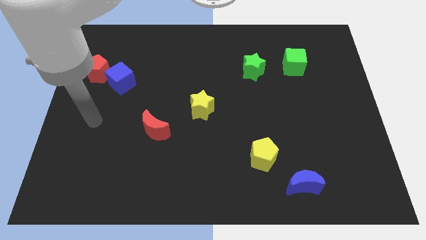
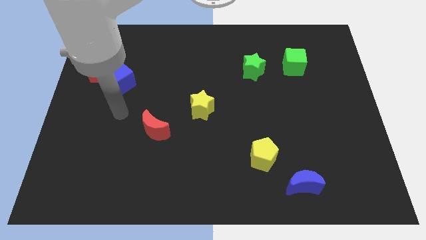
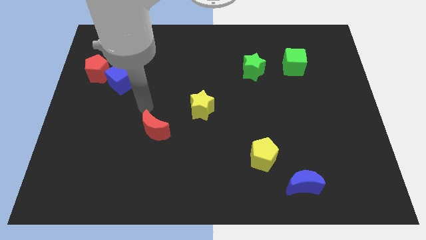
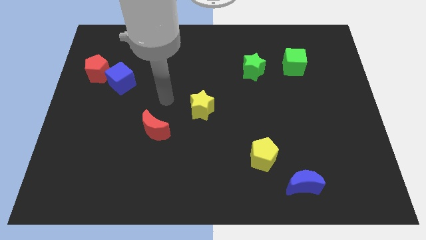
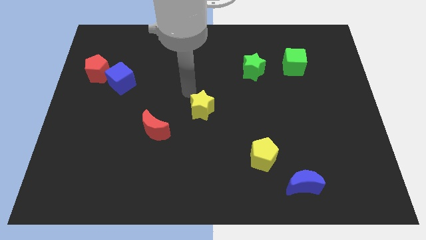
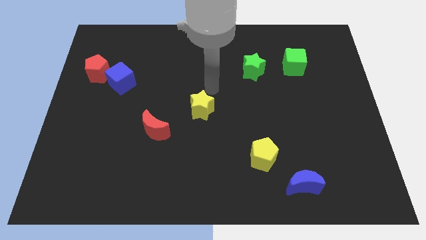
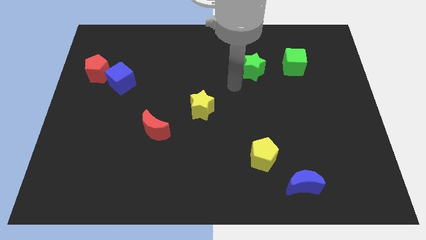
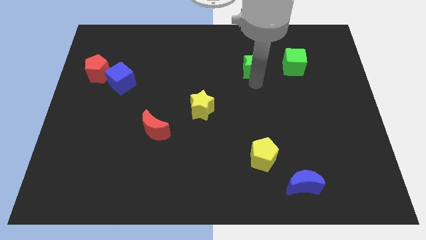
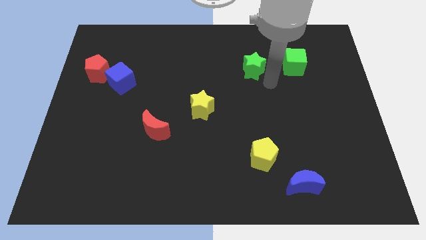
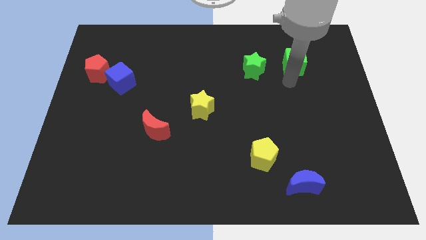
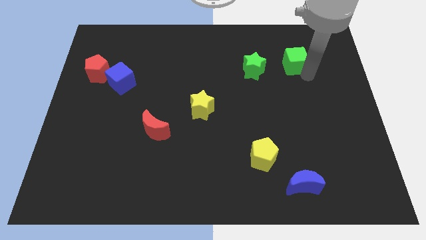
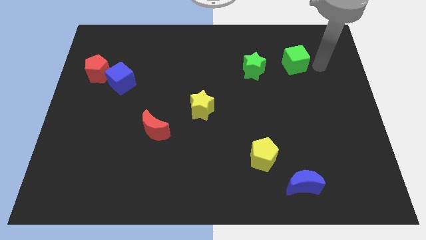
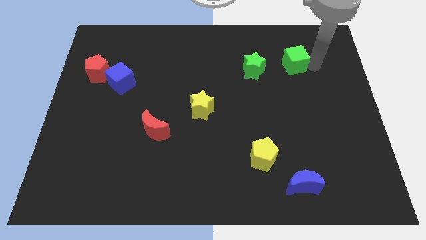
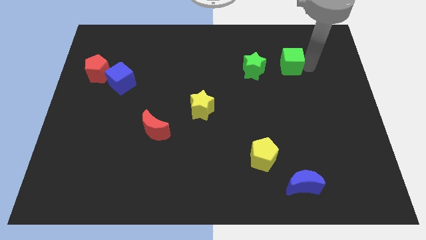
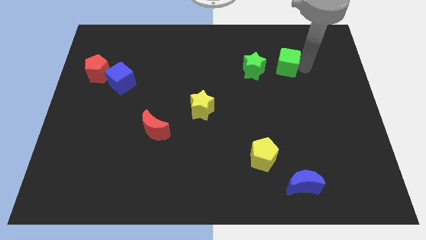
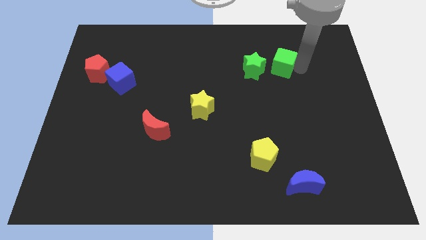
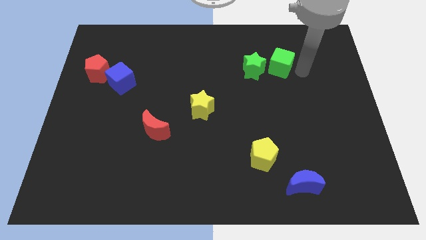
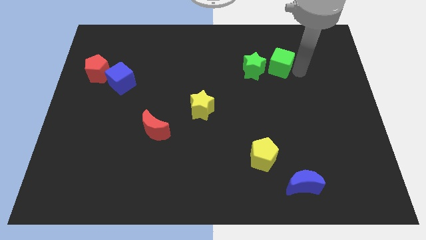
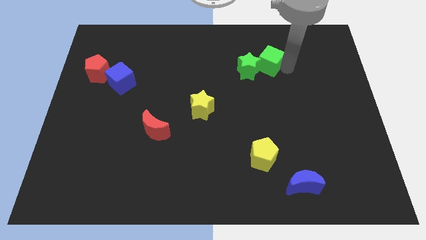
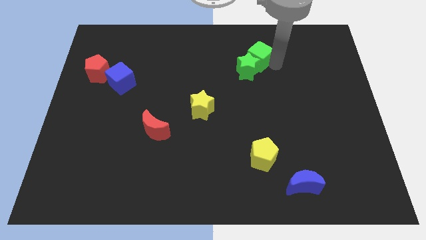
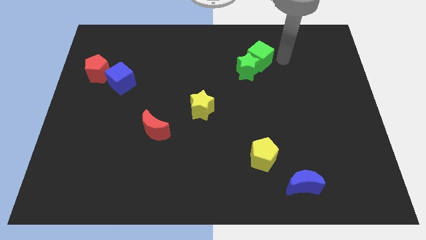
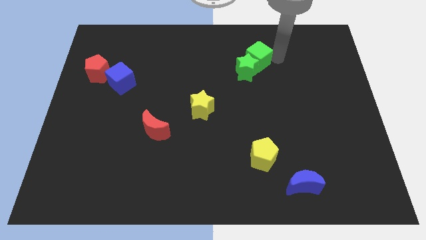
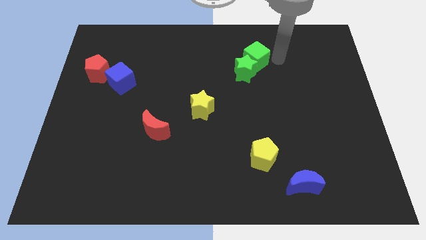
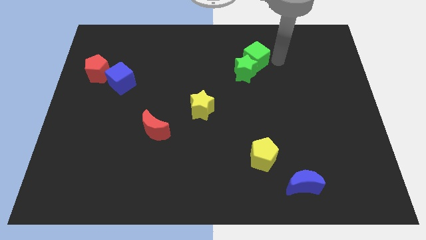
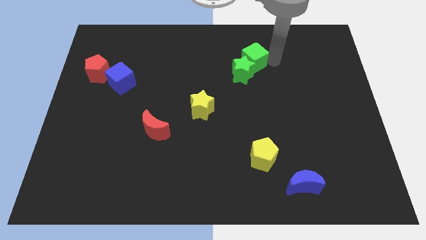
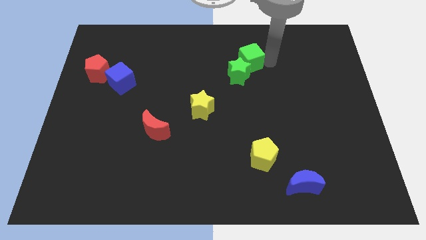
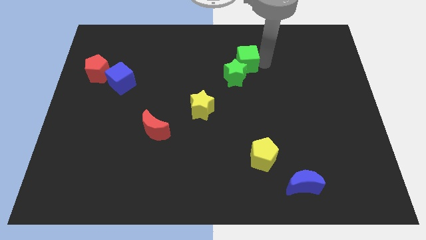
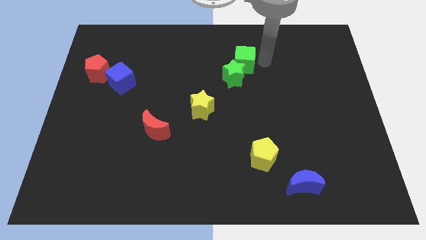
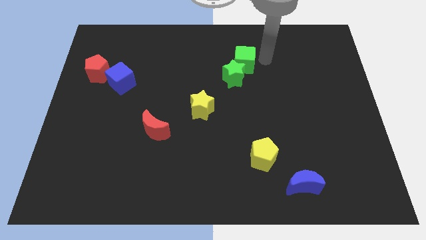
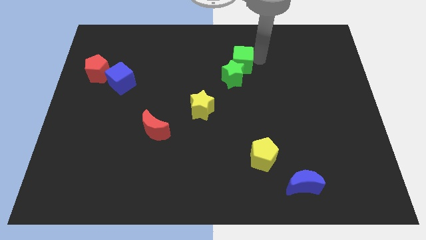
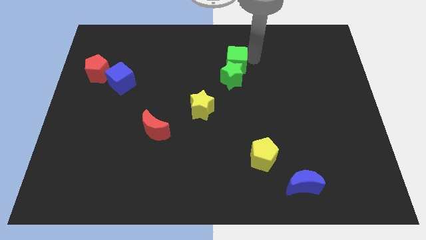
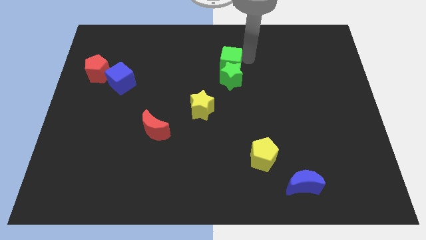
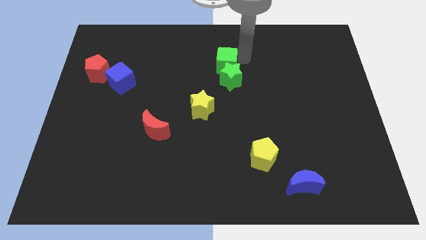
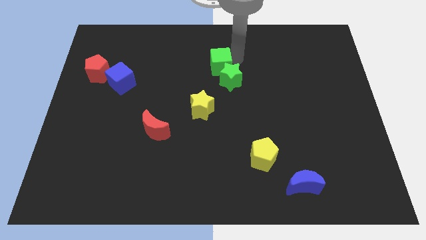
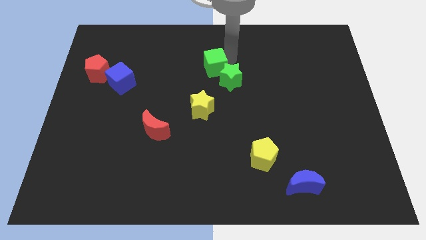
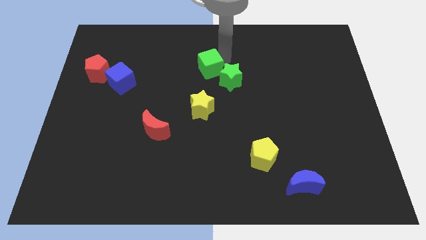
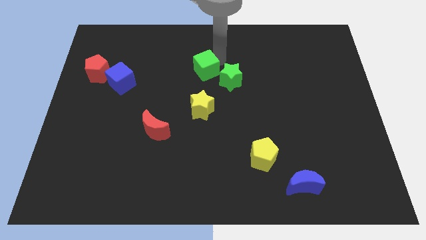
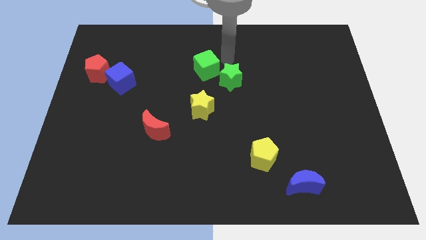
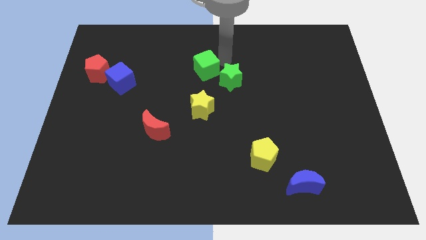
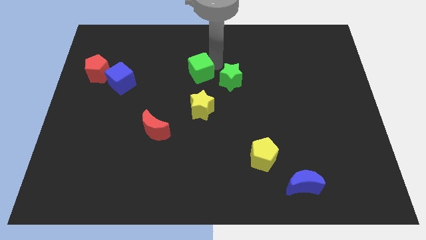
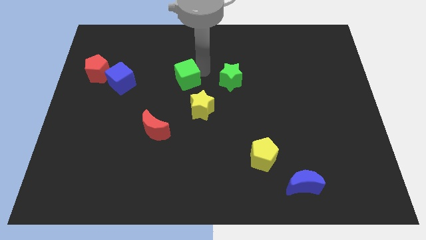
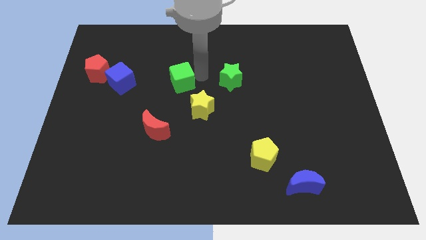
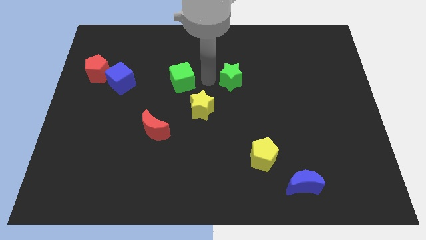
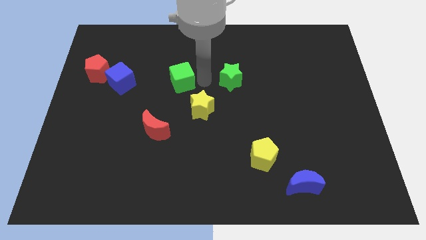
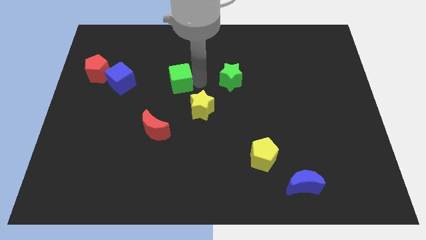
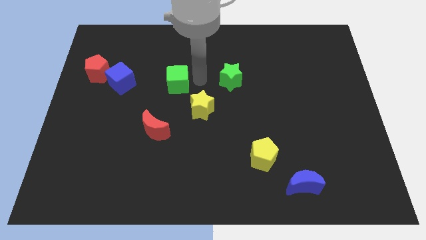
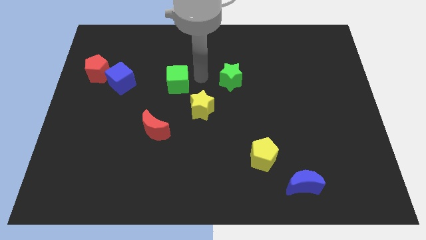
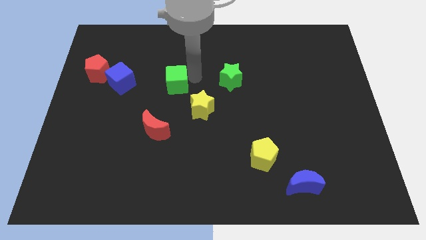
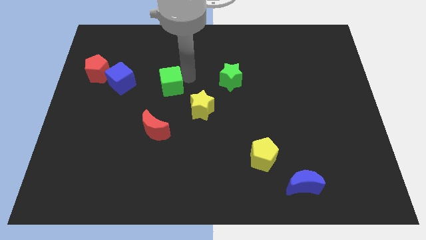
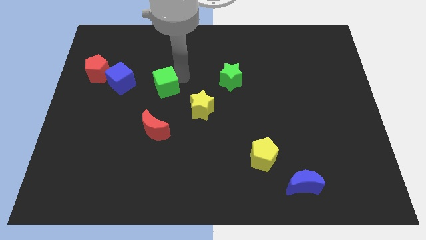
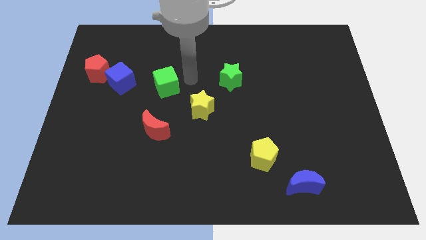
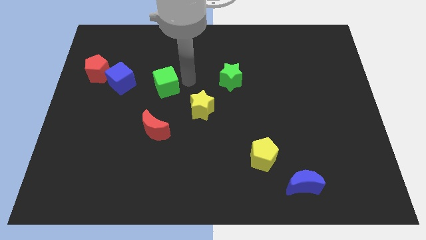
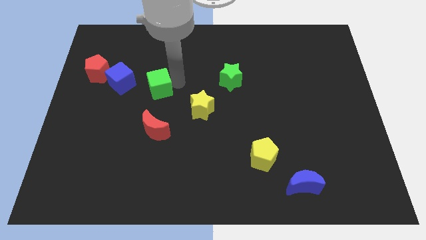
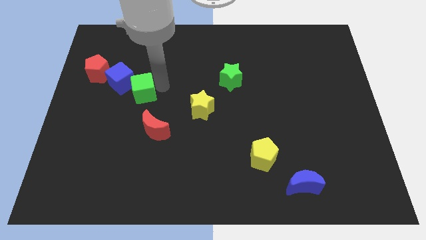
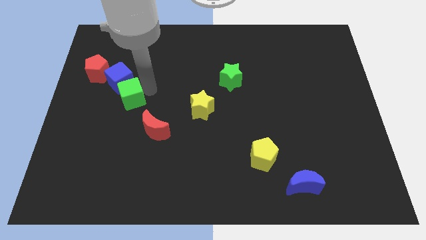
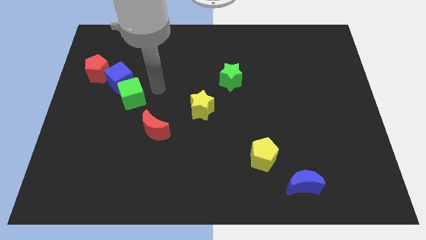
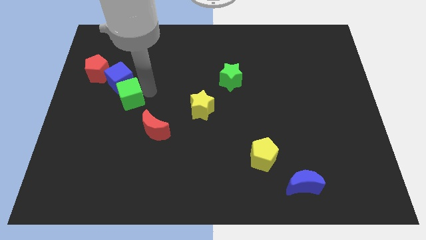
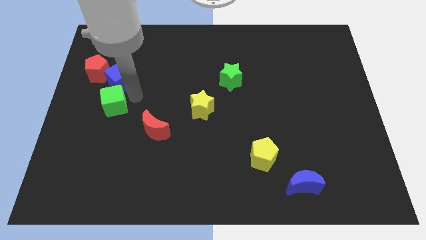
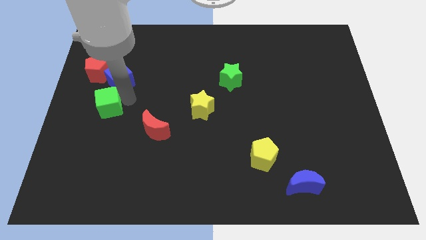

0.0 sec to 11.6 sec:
move the green cube below the red pentagon

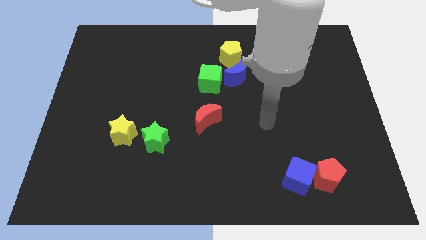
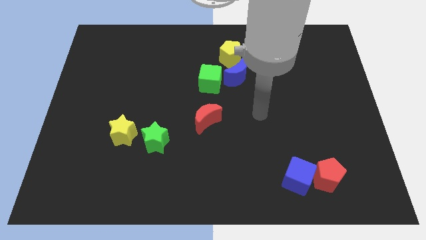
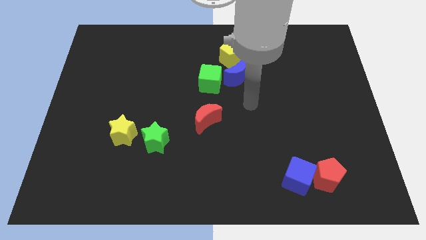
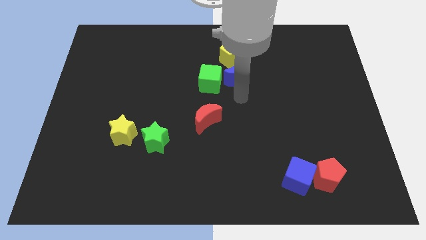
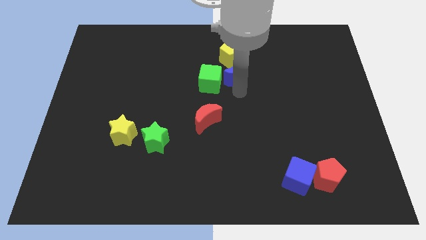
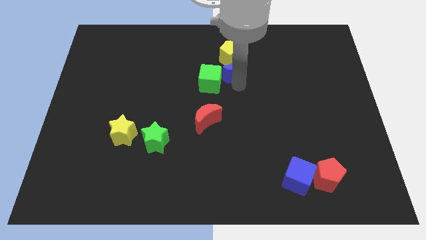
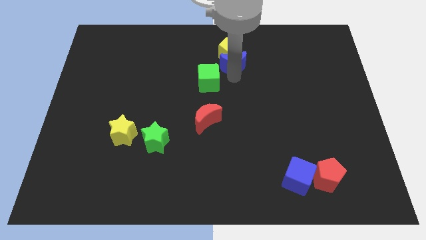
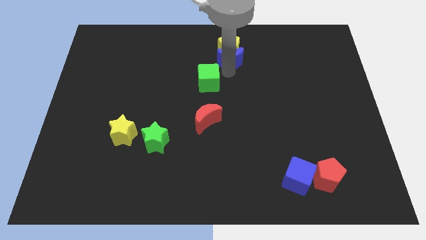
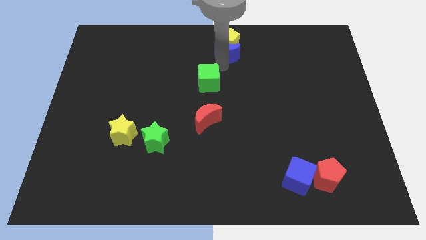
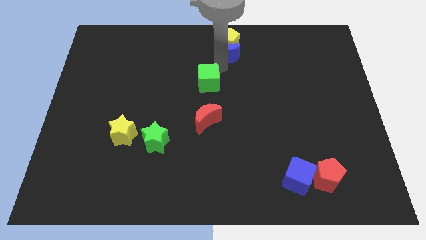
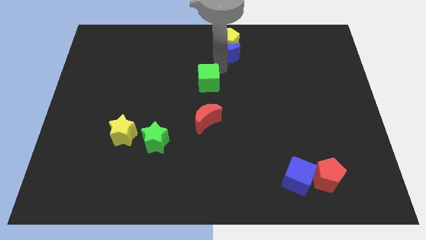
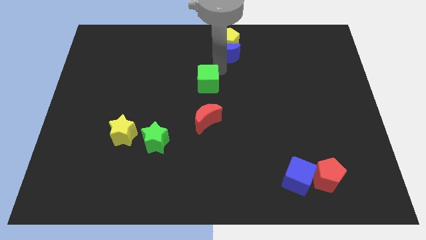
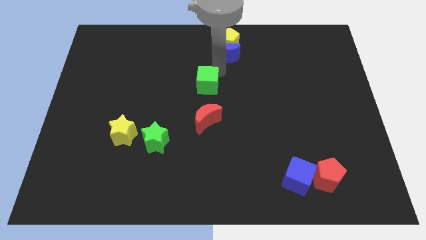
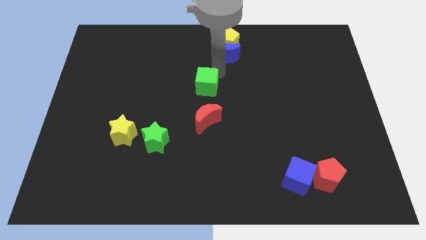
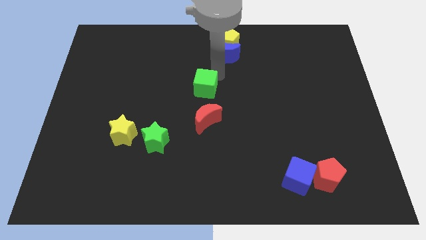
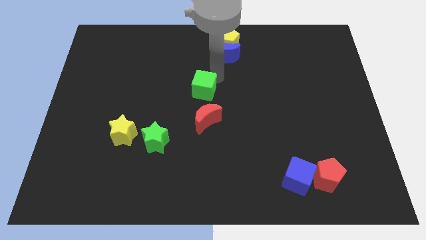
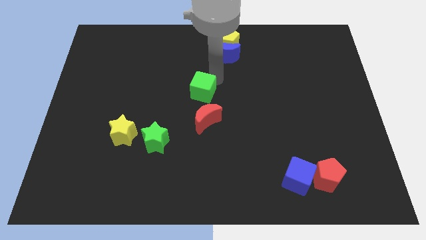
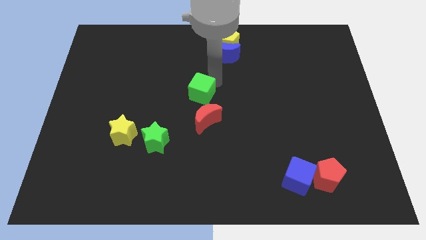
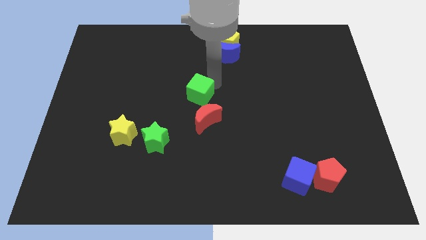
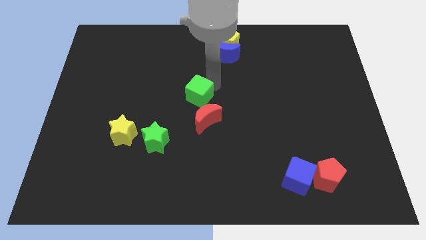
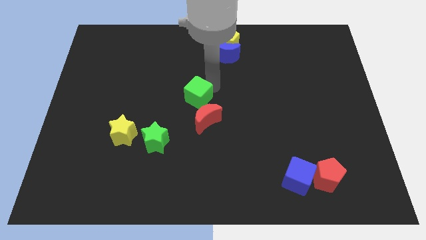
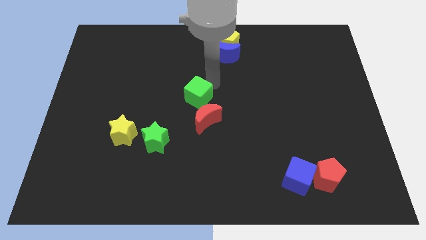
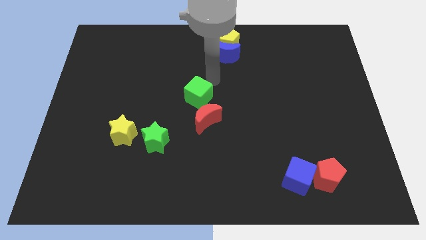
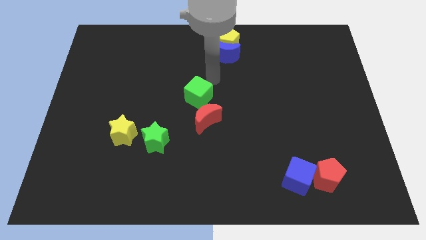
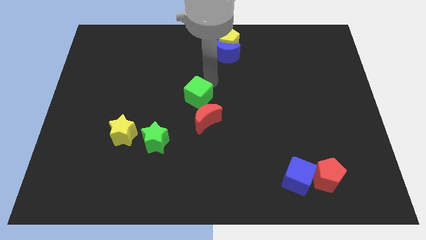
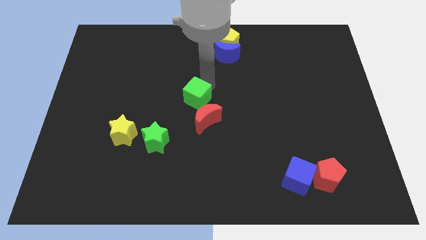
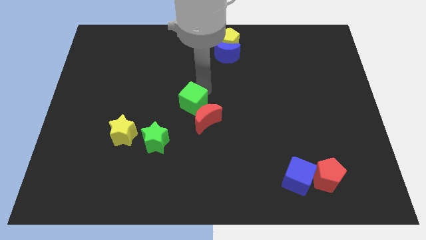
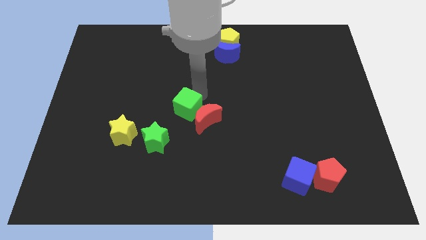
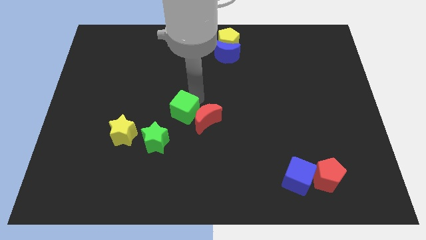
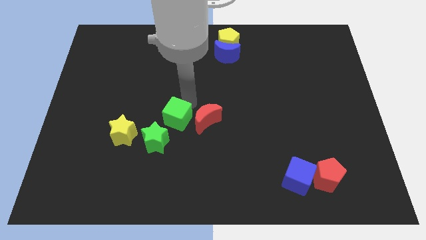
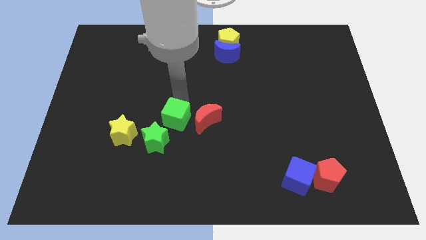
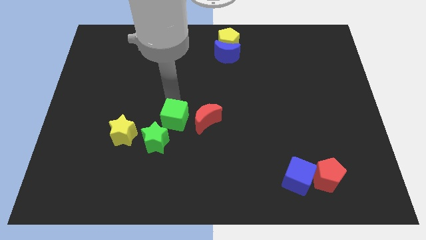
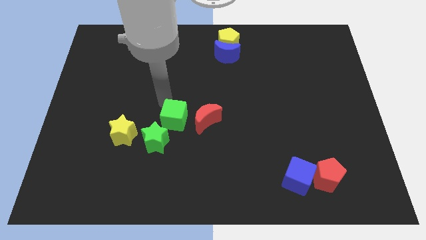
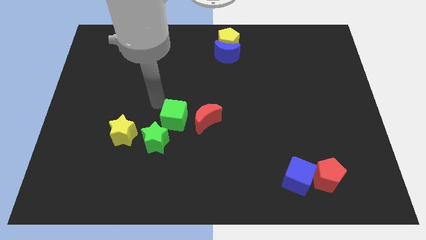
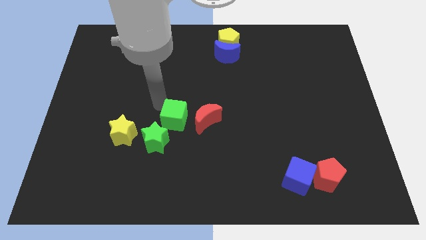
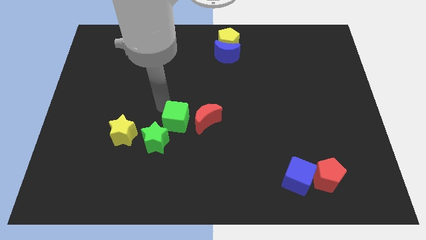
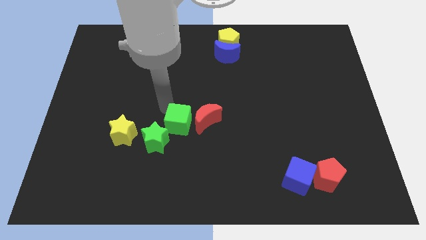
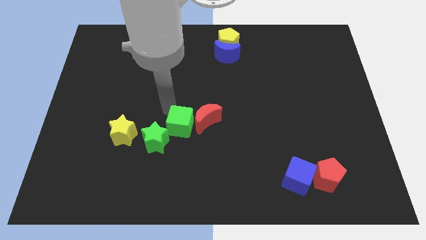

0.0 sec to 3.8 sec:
push the green cube to the right of the green star
